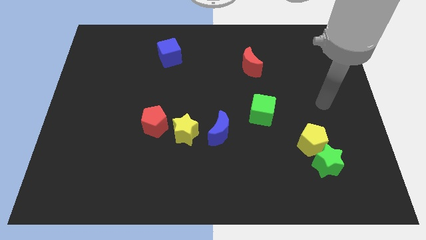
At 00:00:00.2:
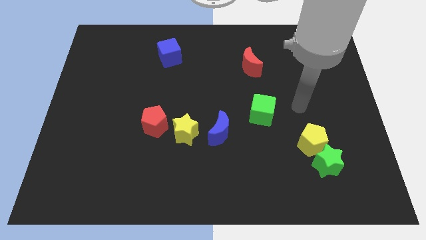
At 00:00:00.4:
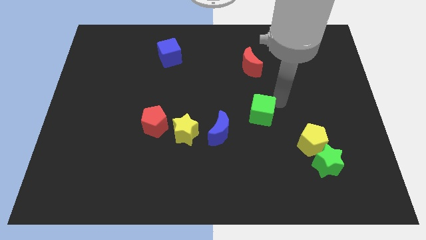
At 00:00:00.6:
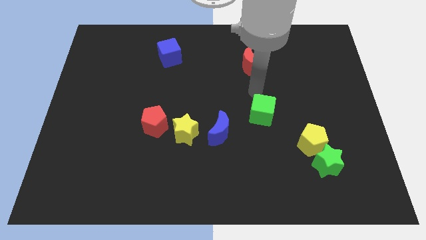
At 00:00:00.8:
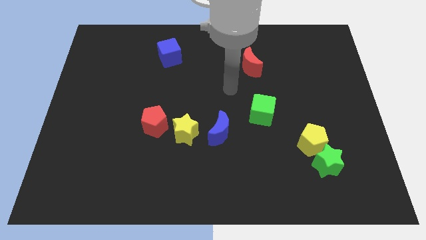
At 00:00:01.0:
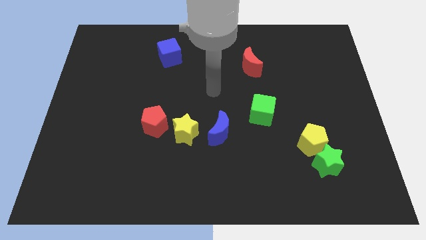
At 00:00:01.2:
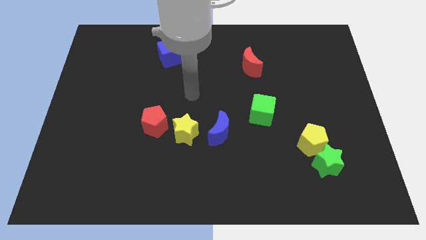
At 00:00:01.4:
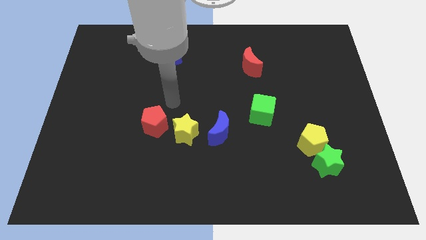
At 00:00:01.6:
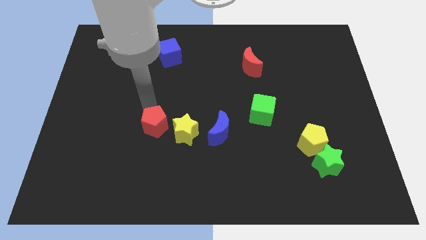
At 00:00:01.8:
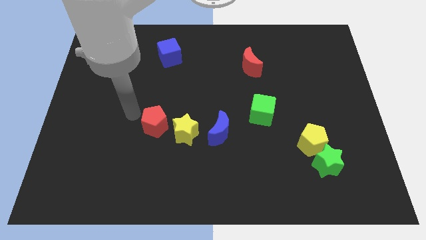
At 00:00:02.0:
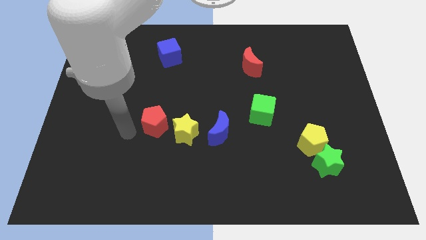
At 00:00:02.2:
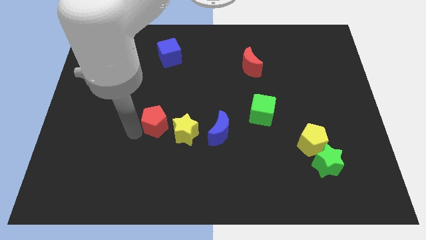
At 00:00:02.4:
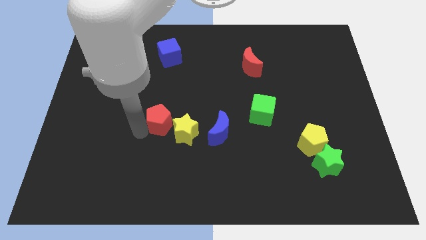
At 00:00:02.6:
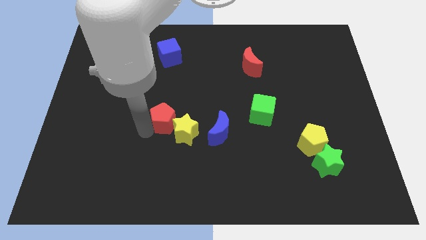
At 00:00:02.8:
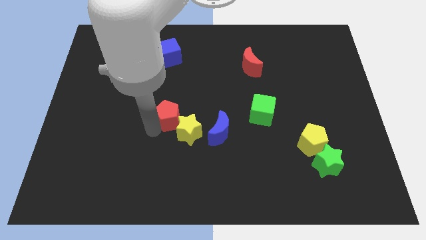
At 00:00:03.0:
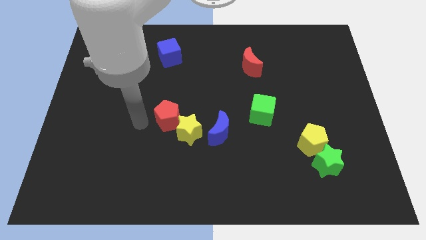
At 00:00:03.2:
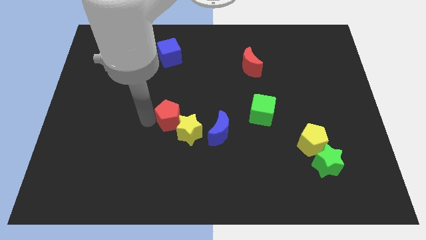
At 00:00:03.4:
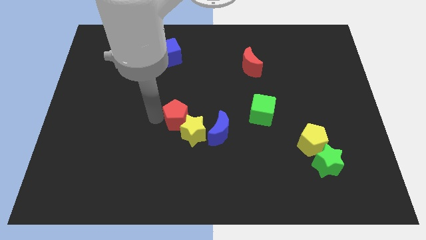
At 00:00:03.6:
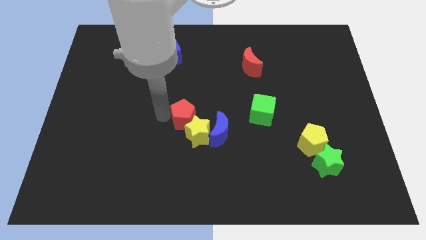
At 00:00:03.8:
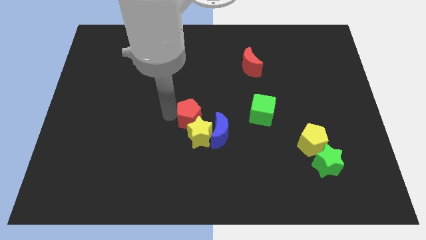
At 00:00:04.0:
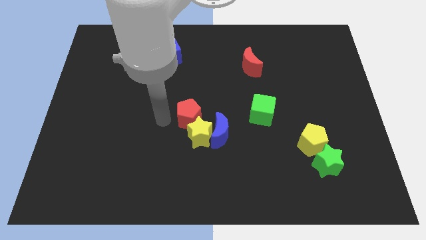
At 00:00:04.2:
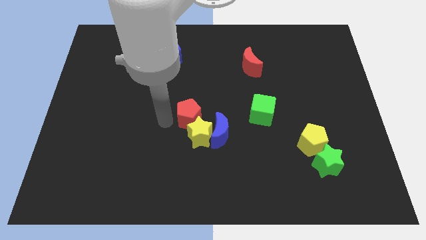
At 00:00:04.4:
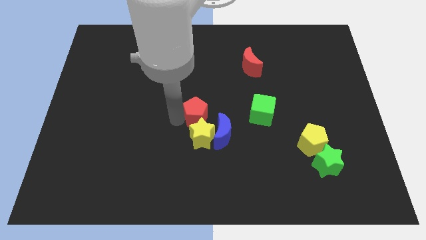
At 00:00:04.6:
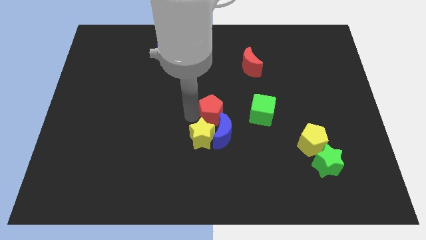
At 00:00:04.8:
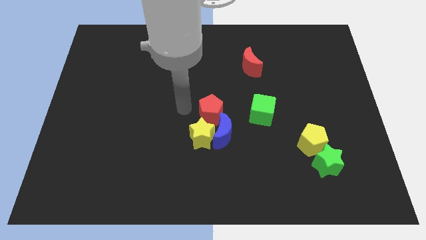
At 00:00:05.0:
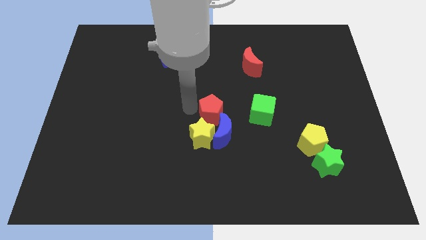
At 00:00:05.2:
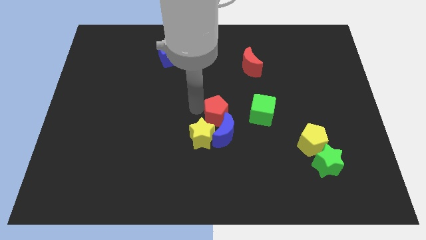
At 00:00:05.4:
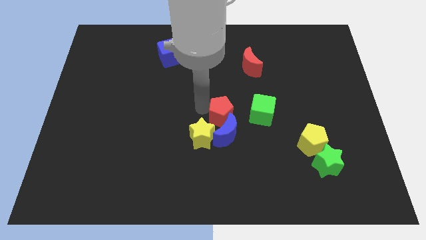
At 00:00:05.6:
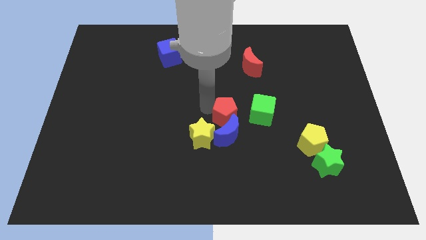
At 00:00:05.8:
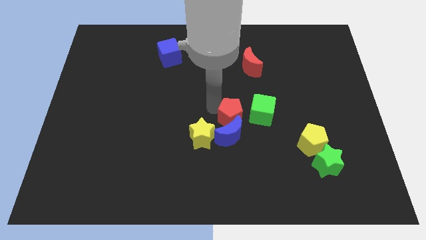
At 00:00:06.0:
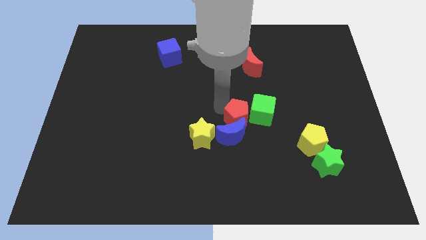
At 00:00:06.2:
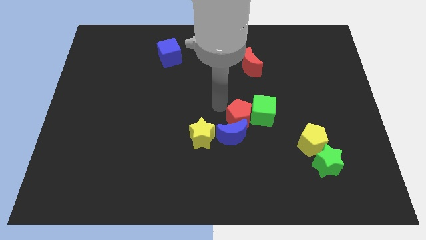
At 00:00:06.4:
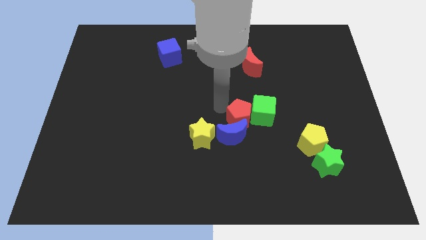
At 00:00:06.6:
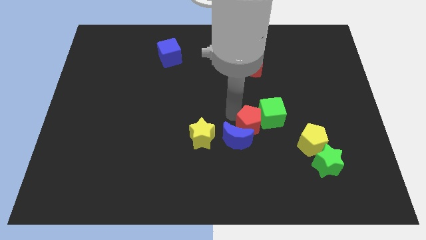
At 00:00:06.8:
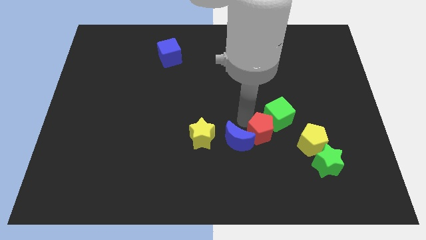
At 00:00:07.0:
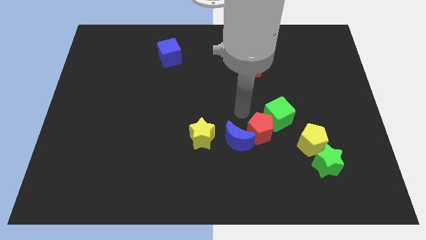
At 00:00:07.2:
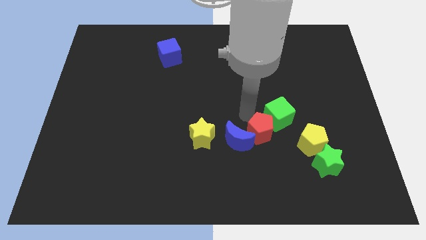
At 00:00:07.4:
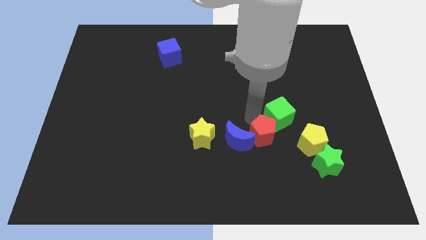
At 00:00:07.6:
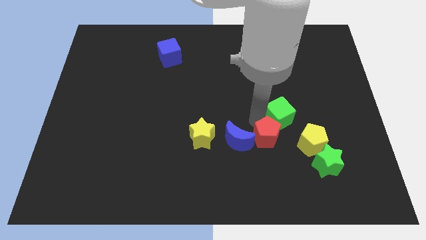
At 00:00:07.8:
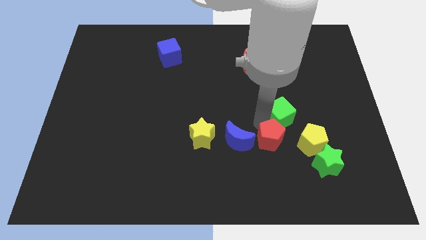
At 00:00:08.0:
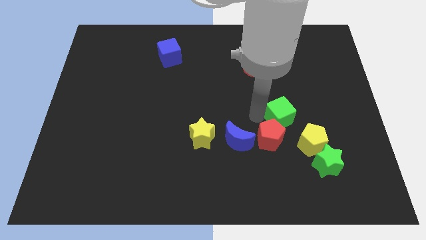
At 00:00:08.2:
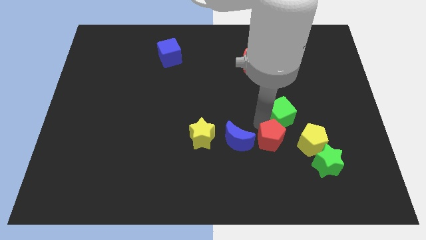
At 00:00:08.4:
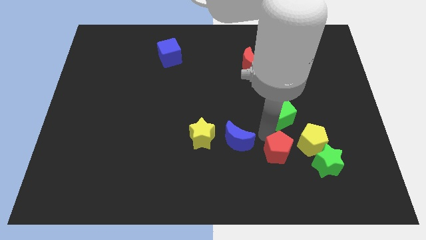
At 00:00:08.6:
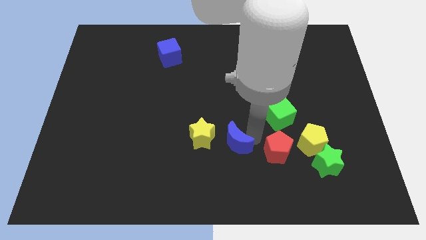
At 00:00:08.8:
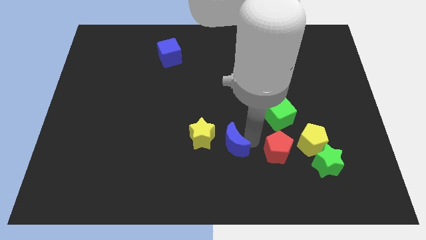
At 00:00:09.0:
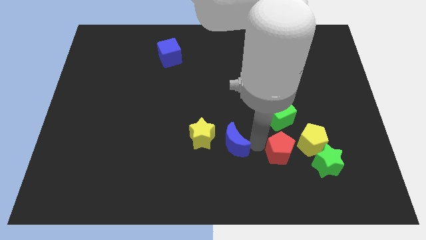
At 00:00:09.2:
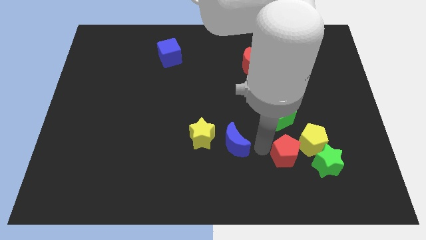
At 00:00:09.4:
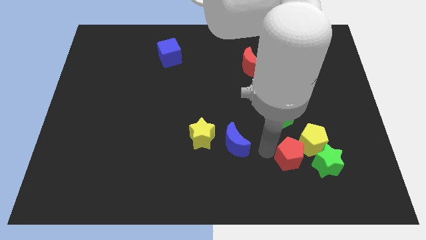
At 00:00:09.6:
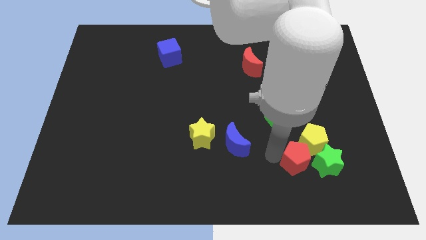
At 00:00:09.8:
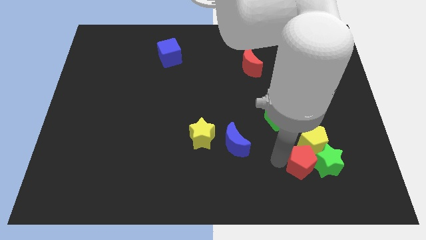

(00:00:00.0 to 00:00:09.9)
put the red pentagon to the green star

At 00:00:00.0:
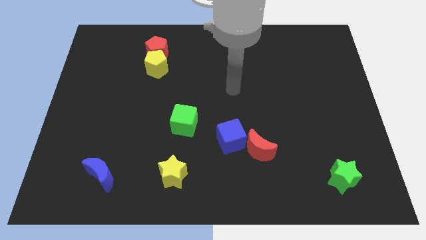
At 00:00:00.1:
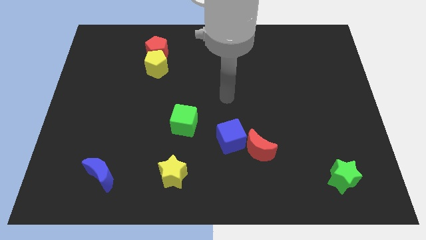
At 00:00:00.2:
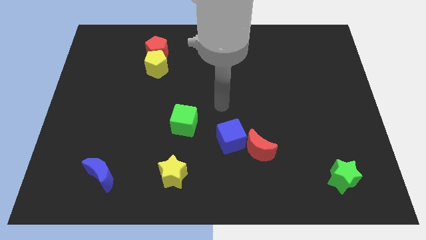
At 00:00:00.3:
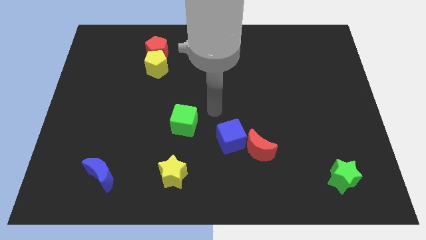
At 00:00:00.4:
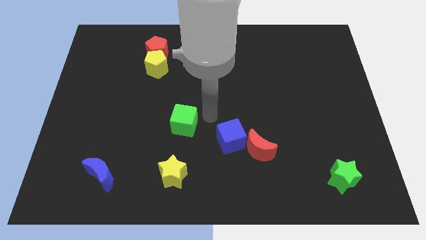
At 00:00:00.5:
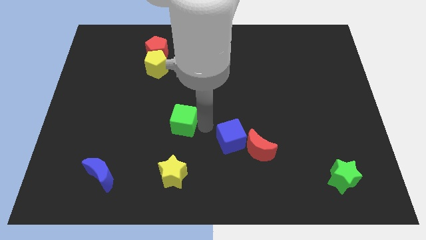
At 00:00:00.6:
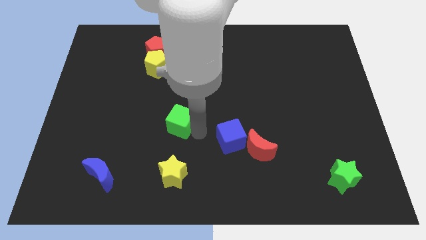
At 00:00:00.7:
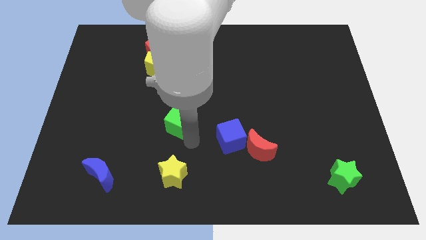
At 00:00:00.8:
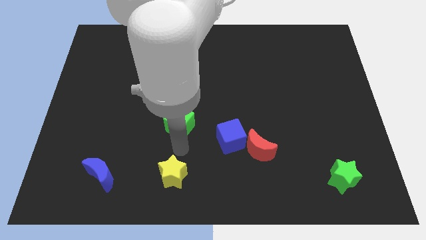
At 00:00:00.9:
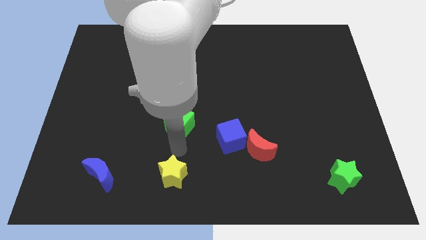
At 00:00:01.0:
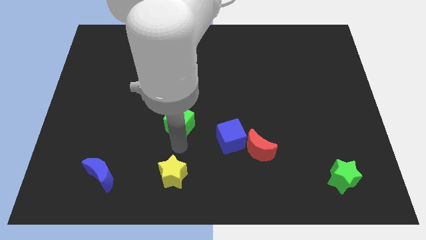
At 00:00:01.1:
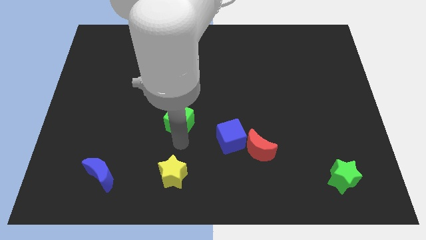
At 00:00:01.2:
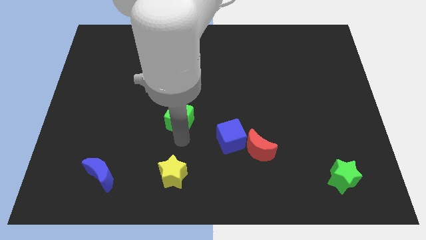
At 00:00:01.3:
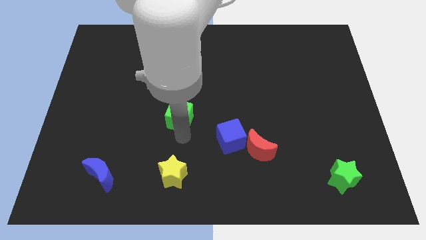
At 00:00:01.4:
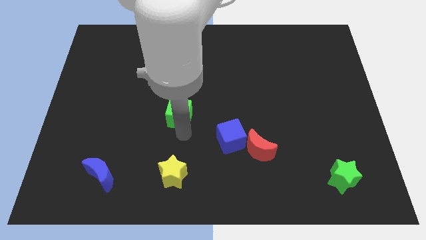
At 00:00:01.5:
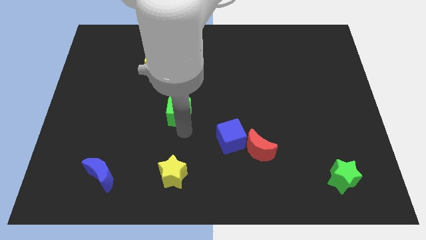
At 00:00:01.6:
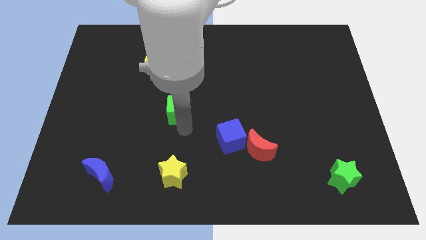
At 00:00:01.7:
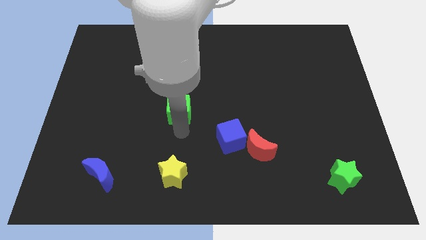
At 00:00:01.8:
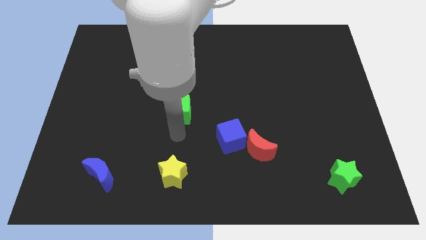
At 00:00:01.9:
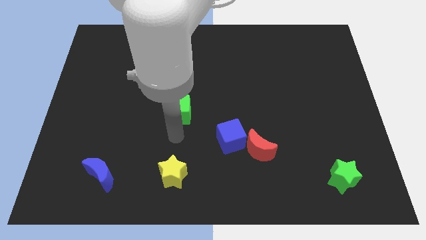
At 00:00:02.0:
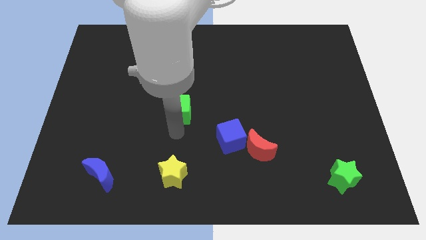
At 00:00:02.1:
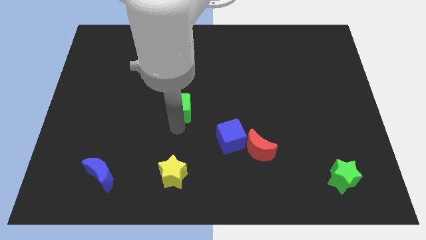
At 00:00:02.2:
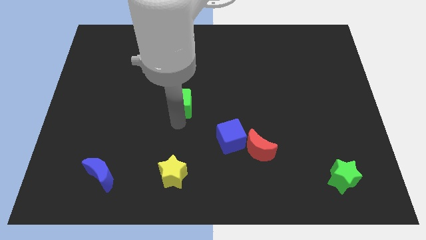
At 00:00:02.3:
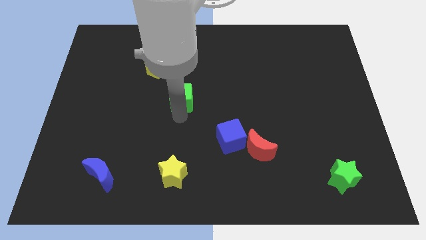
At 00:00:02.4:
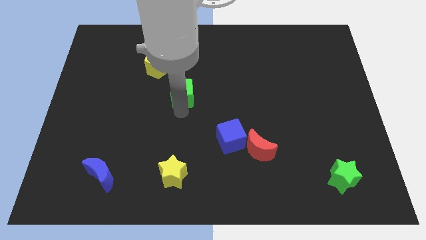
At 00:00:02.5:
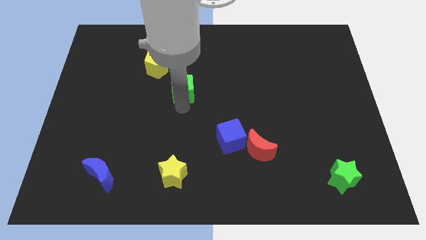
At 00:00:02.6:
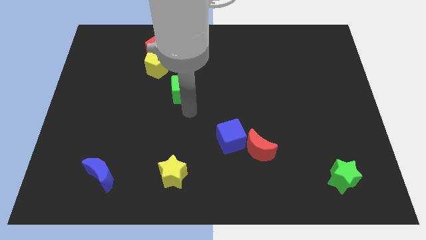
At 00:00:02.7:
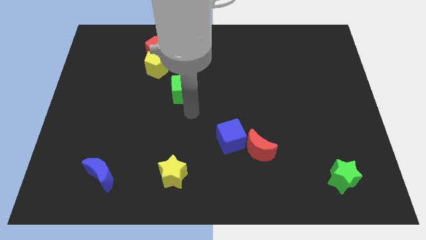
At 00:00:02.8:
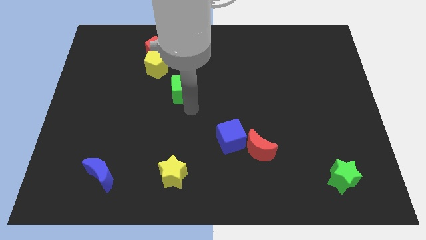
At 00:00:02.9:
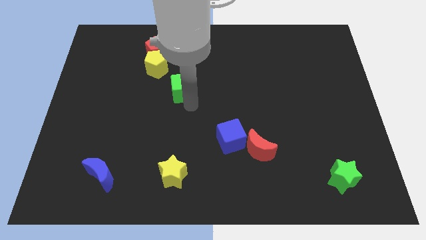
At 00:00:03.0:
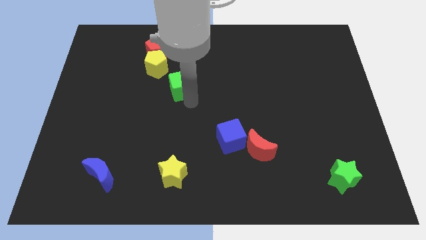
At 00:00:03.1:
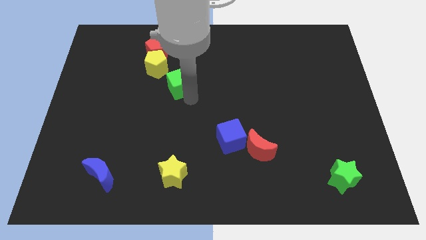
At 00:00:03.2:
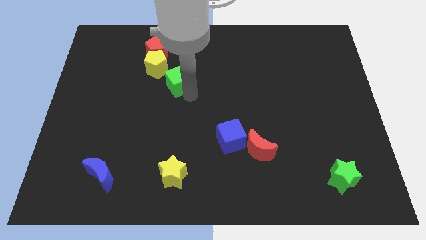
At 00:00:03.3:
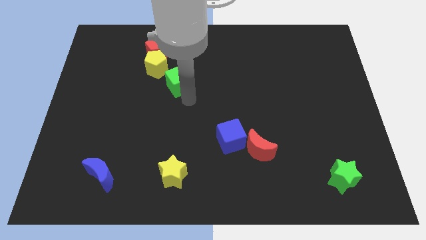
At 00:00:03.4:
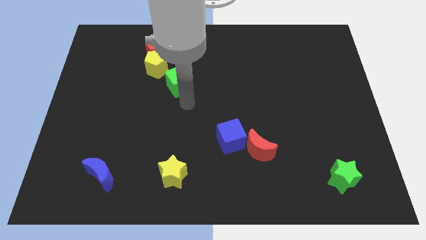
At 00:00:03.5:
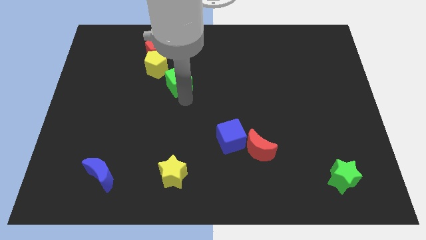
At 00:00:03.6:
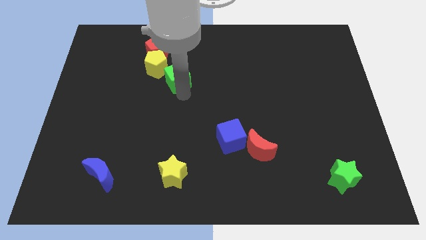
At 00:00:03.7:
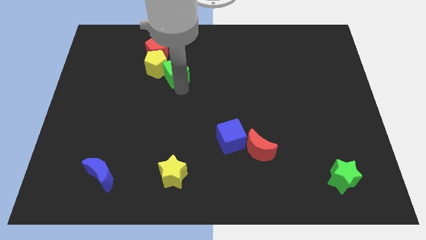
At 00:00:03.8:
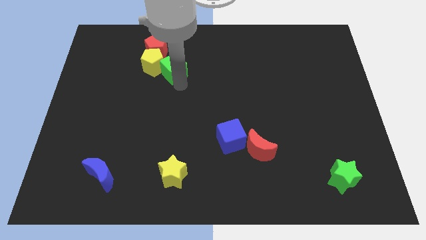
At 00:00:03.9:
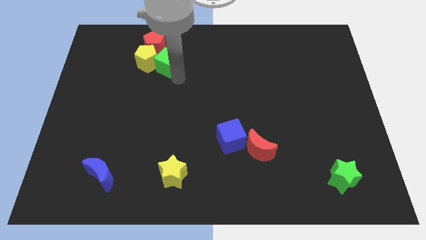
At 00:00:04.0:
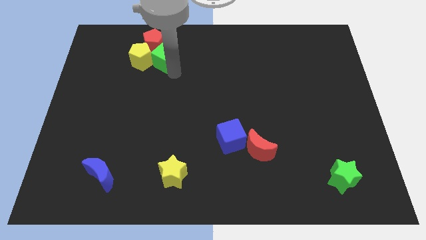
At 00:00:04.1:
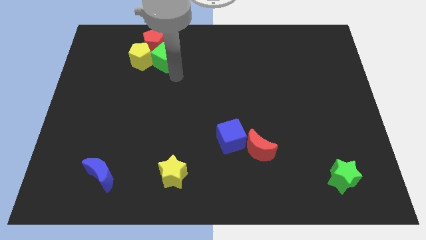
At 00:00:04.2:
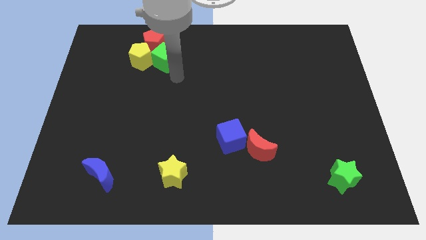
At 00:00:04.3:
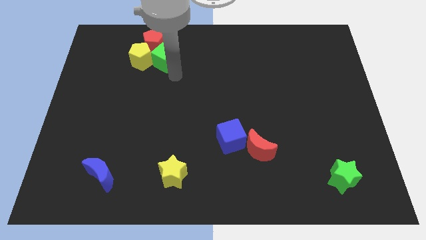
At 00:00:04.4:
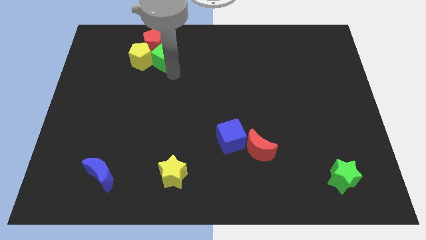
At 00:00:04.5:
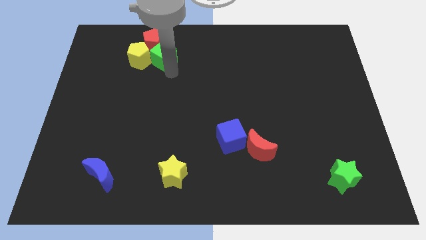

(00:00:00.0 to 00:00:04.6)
slide the green cube next to the red pentagon
